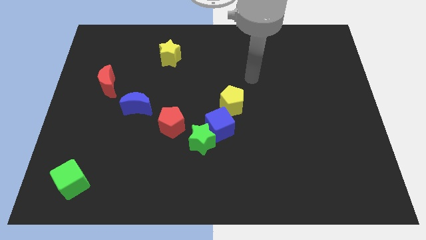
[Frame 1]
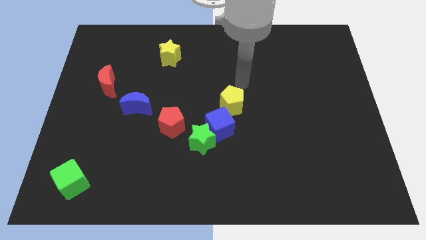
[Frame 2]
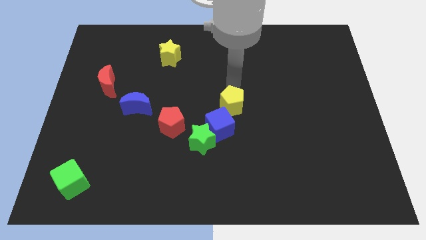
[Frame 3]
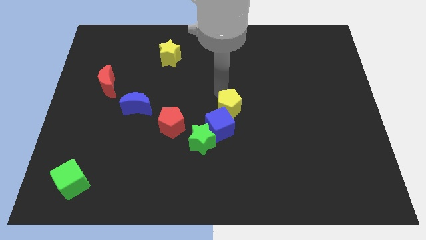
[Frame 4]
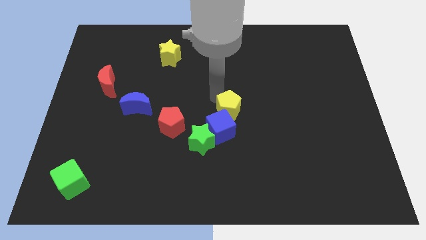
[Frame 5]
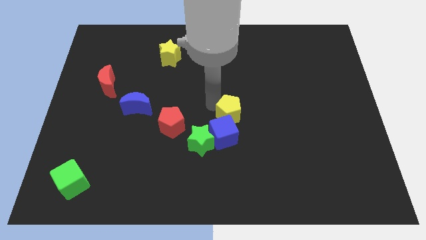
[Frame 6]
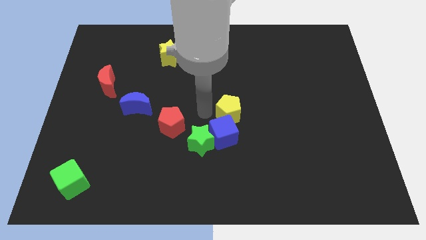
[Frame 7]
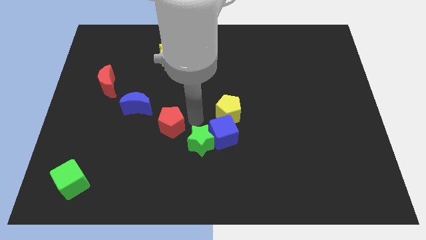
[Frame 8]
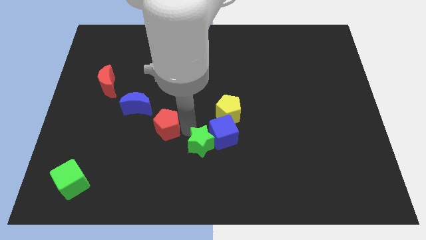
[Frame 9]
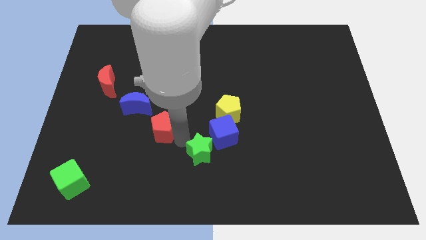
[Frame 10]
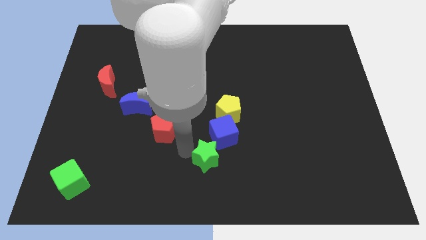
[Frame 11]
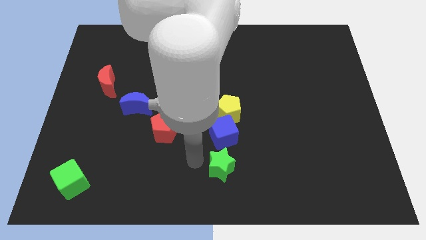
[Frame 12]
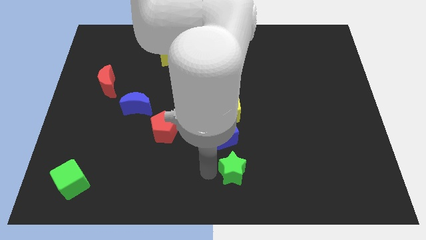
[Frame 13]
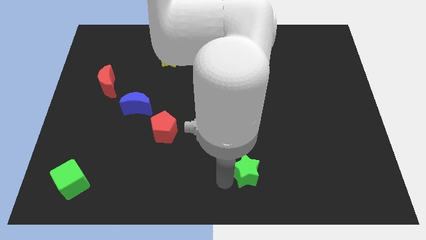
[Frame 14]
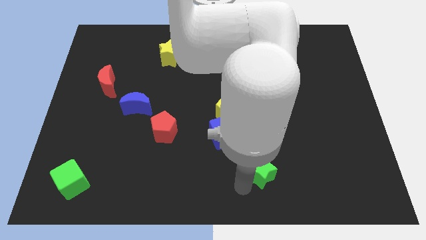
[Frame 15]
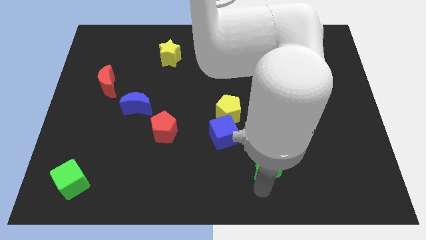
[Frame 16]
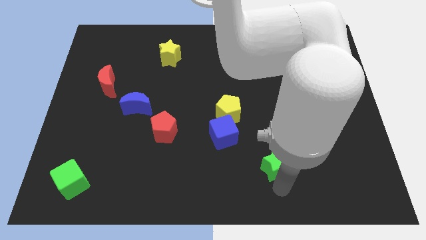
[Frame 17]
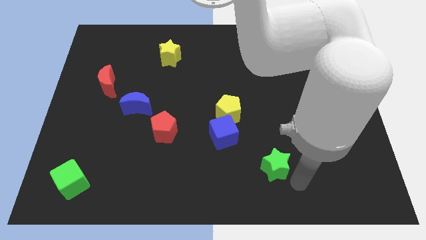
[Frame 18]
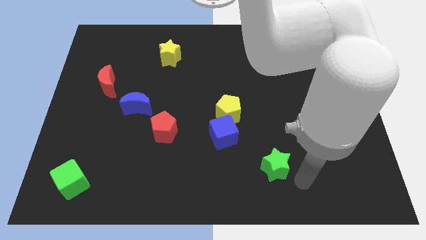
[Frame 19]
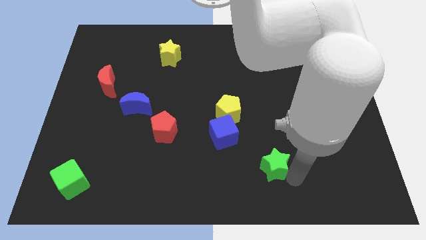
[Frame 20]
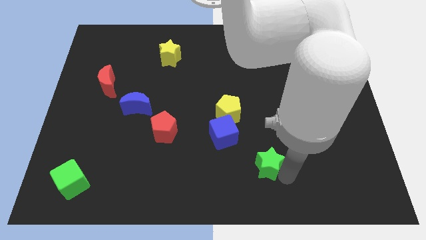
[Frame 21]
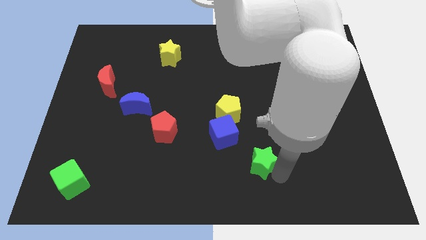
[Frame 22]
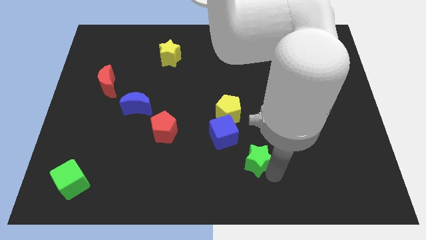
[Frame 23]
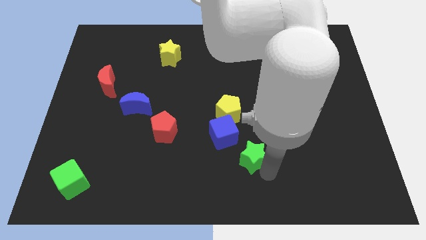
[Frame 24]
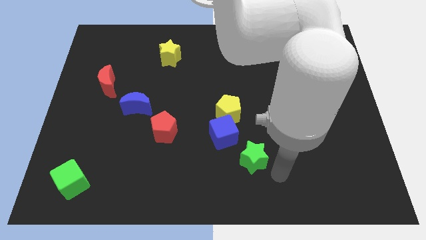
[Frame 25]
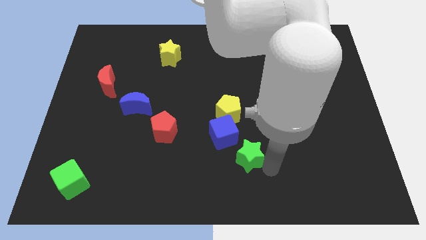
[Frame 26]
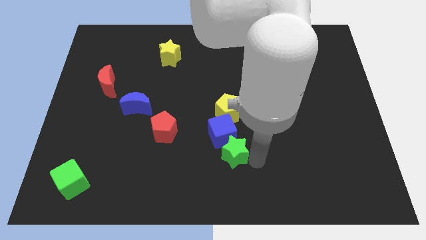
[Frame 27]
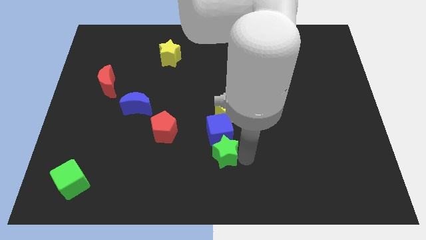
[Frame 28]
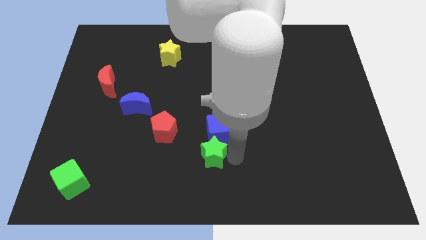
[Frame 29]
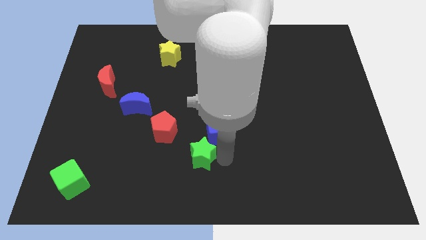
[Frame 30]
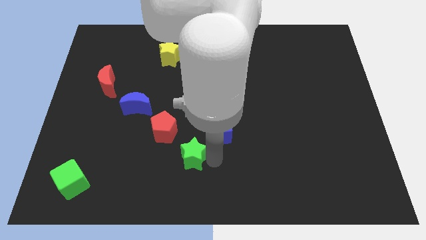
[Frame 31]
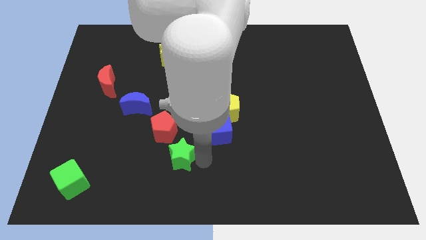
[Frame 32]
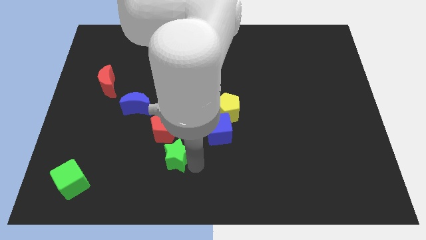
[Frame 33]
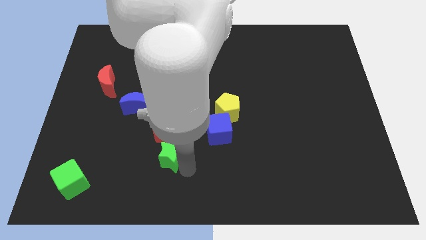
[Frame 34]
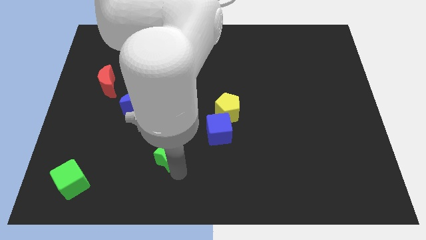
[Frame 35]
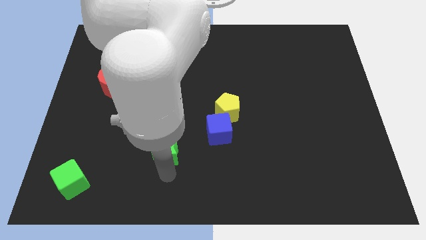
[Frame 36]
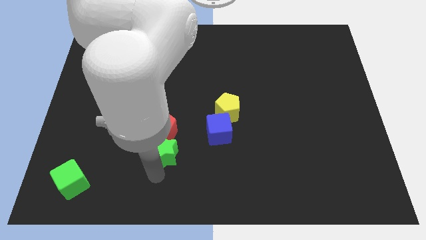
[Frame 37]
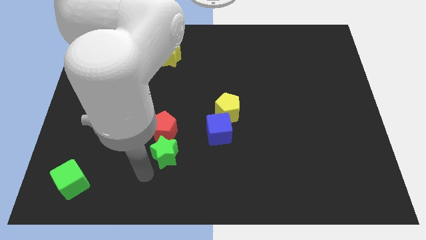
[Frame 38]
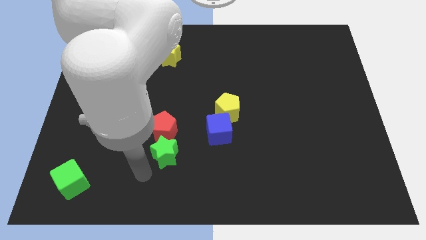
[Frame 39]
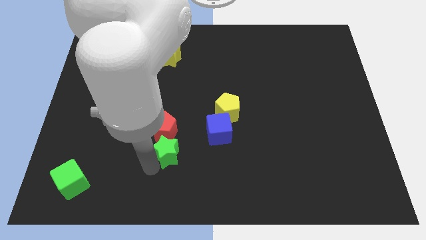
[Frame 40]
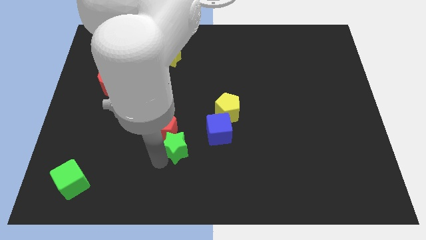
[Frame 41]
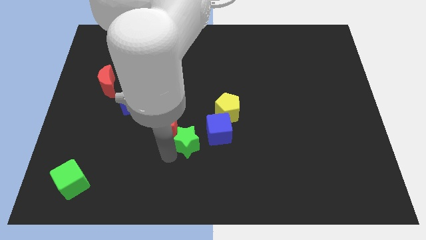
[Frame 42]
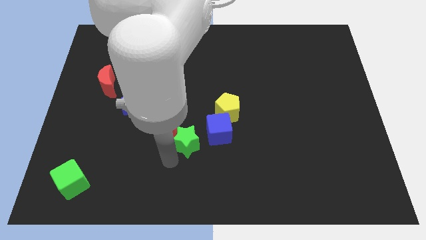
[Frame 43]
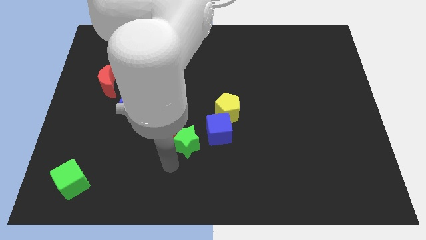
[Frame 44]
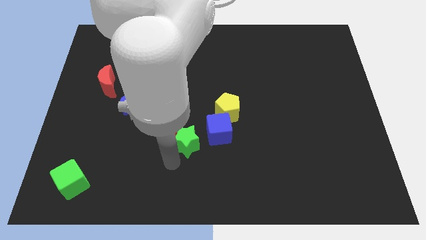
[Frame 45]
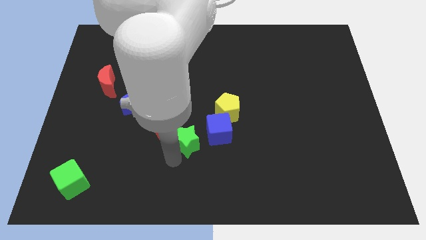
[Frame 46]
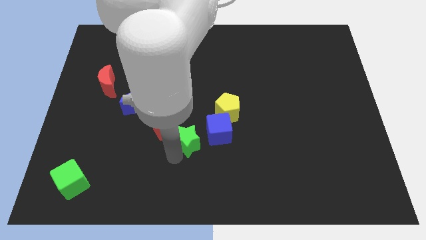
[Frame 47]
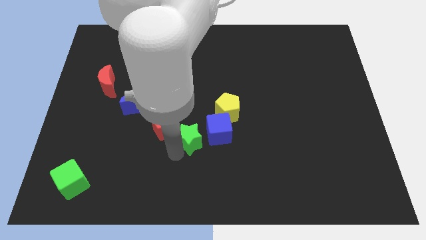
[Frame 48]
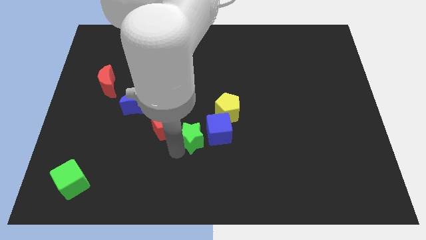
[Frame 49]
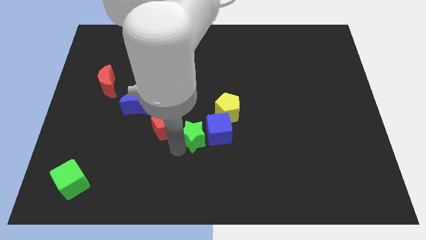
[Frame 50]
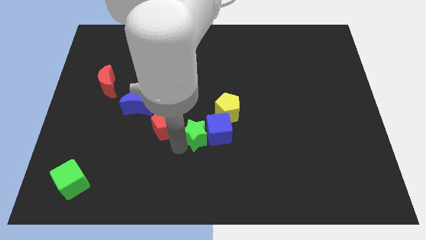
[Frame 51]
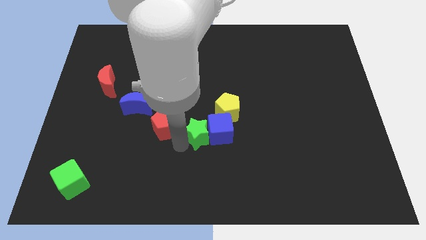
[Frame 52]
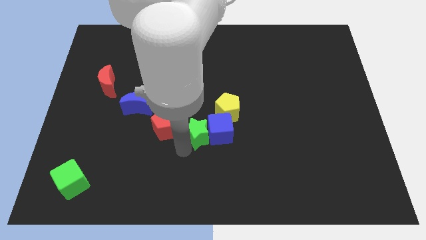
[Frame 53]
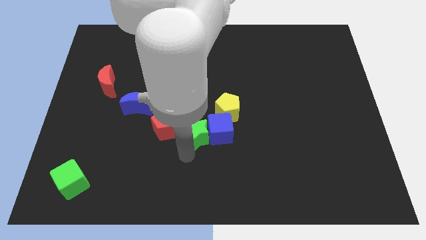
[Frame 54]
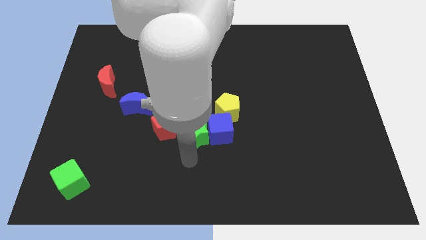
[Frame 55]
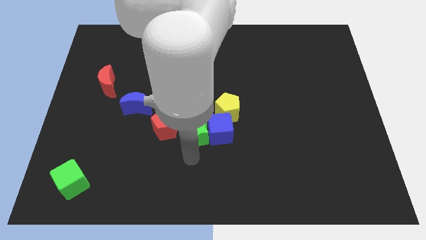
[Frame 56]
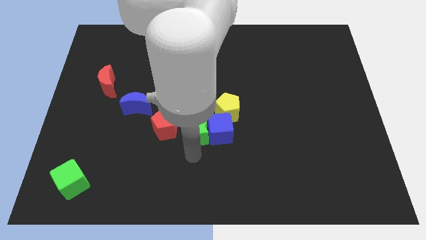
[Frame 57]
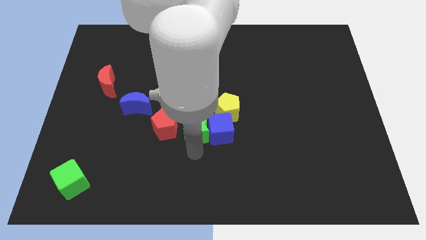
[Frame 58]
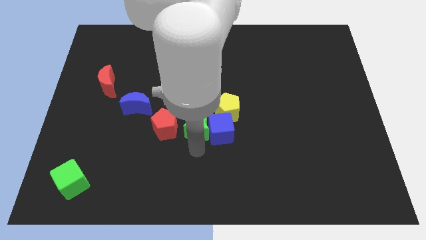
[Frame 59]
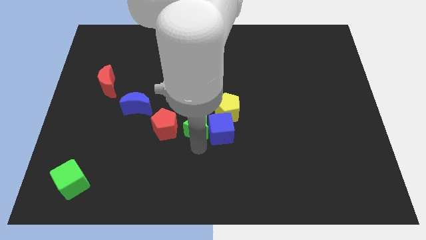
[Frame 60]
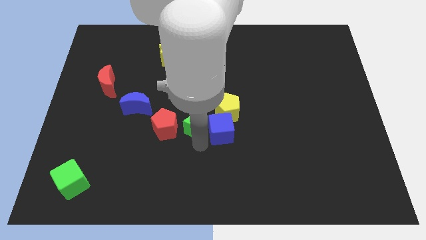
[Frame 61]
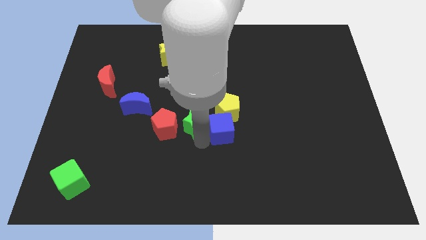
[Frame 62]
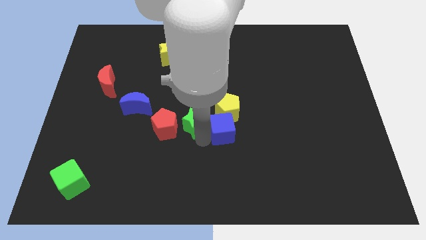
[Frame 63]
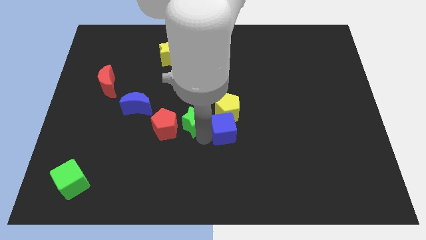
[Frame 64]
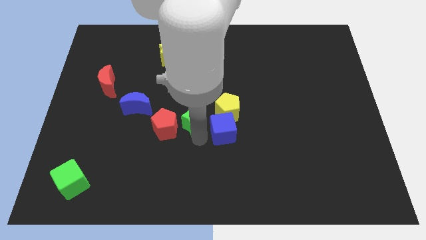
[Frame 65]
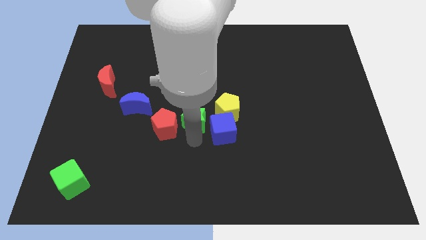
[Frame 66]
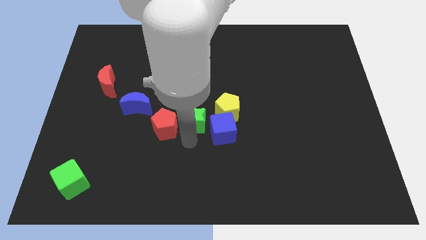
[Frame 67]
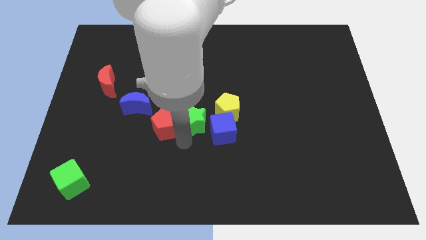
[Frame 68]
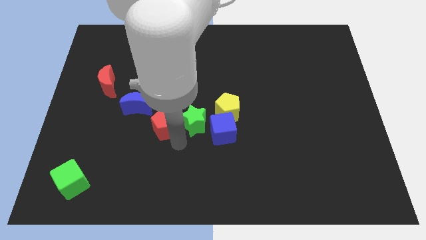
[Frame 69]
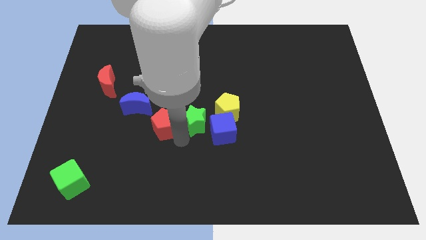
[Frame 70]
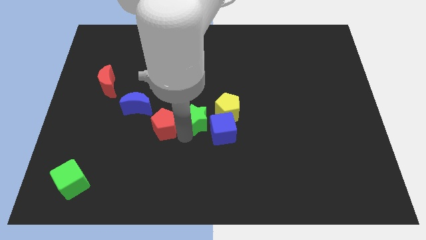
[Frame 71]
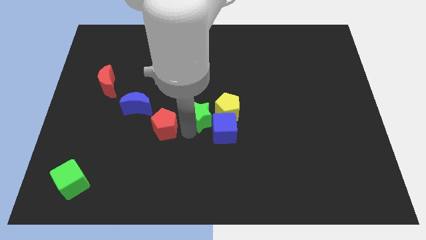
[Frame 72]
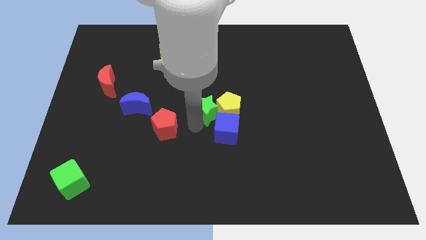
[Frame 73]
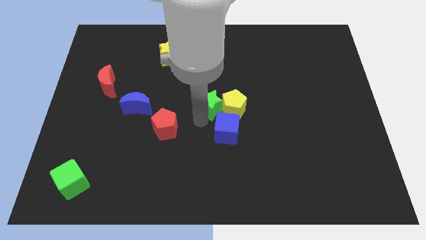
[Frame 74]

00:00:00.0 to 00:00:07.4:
slide the green star a bit up and then to the right

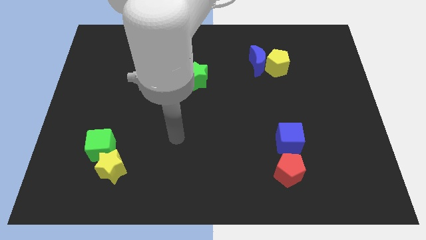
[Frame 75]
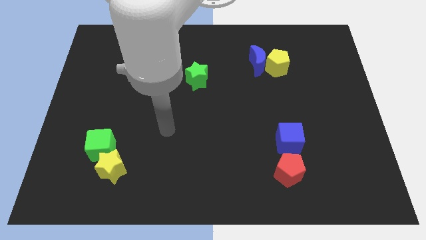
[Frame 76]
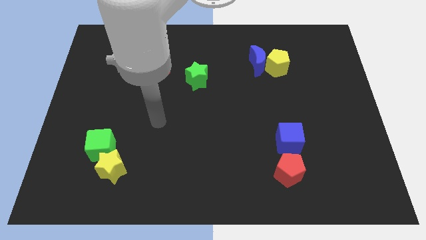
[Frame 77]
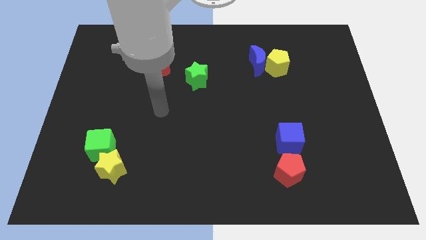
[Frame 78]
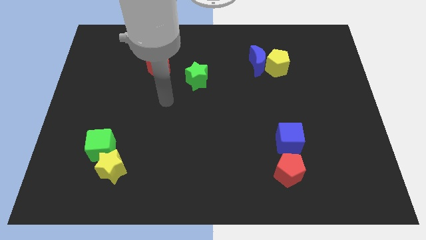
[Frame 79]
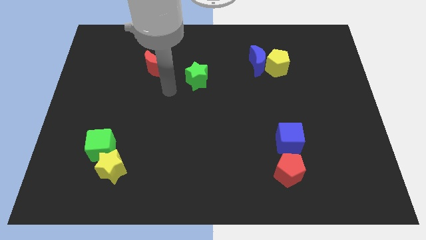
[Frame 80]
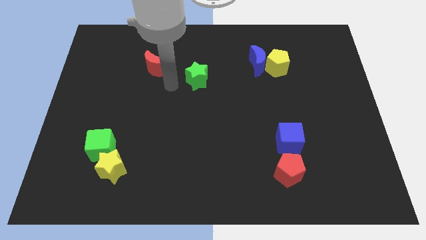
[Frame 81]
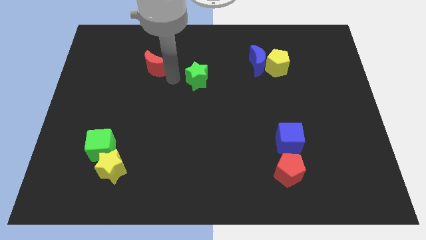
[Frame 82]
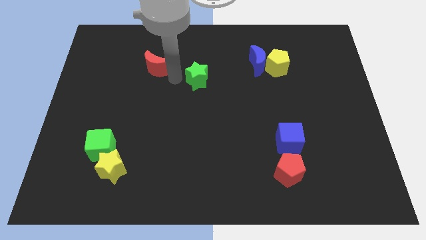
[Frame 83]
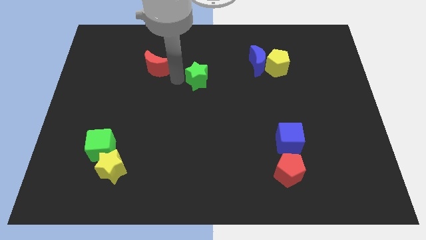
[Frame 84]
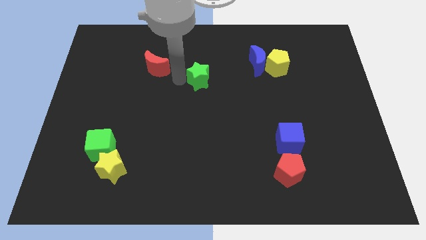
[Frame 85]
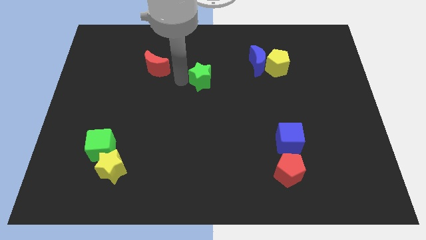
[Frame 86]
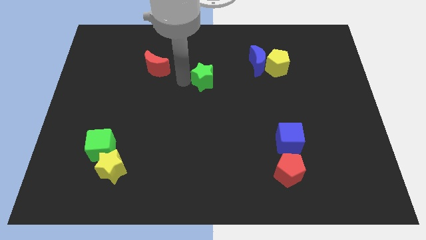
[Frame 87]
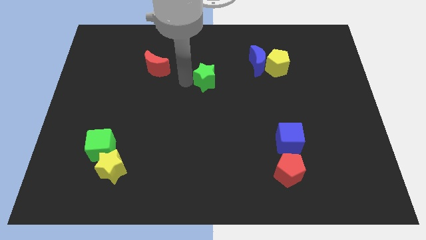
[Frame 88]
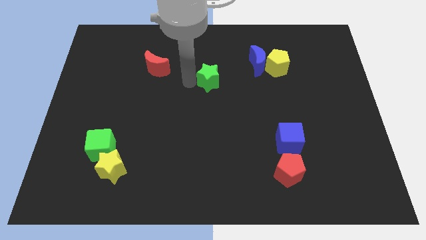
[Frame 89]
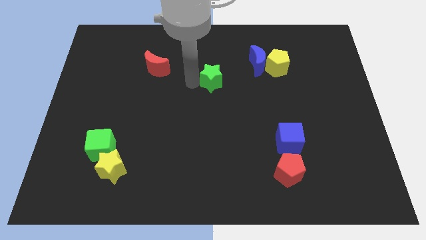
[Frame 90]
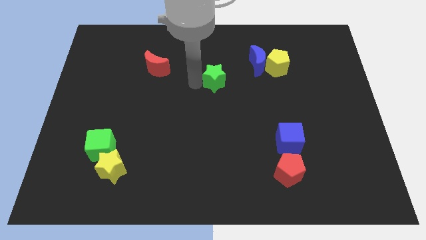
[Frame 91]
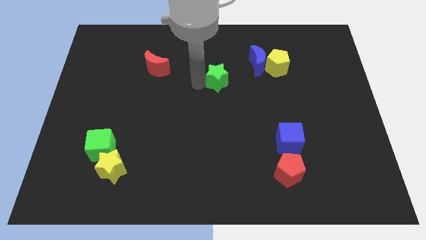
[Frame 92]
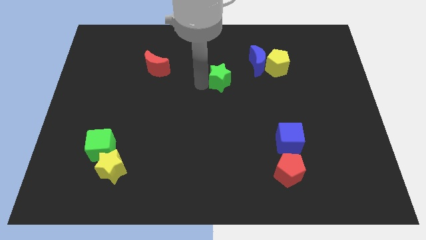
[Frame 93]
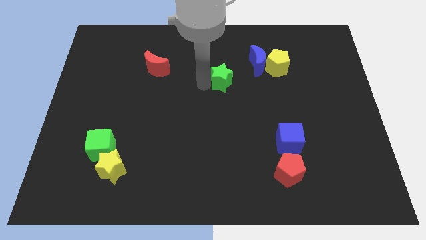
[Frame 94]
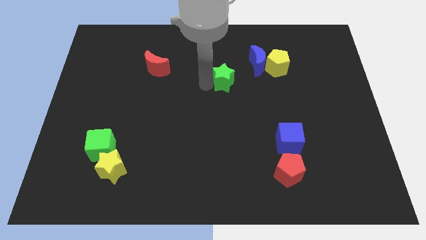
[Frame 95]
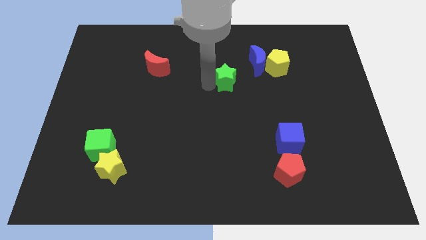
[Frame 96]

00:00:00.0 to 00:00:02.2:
move the green star a little bit to the right
